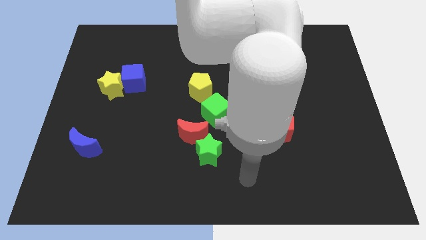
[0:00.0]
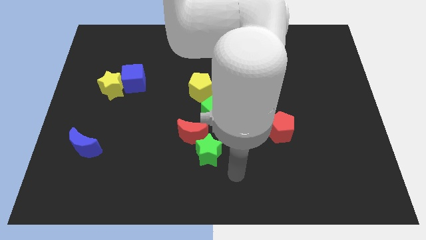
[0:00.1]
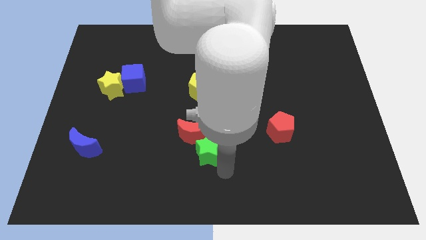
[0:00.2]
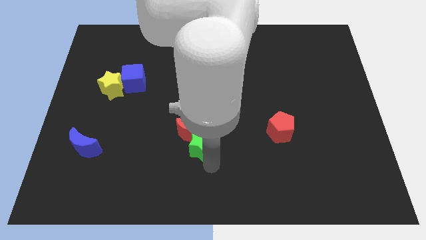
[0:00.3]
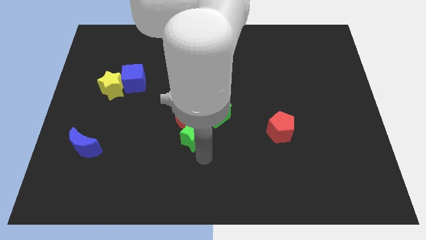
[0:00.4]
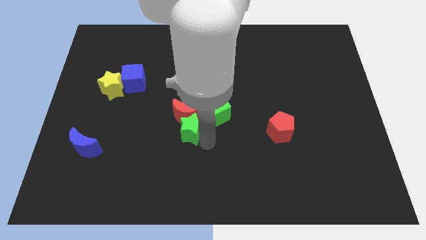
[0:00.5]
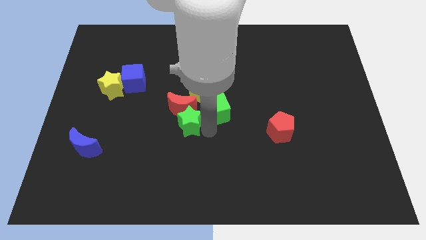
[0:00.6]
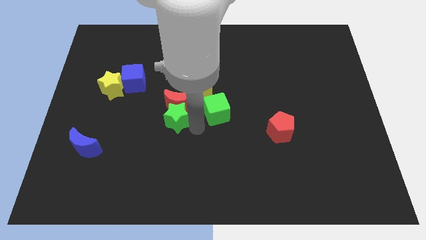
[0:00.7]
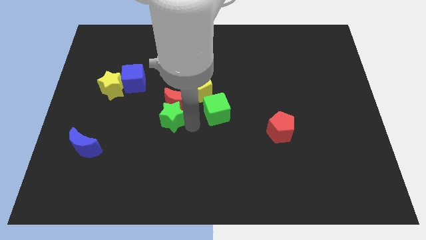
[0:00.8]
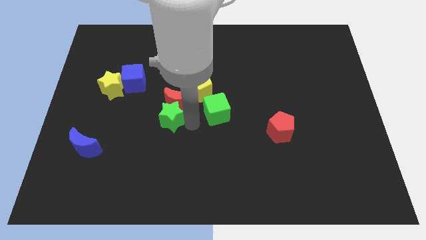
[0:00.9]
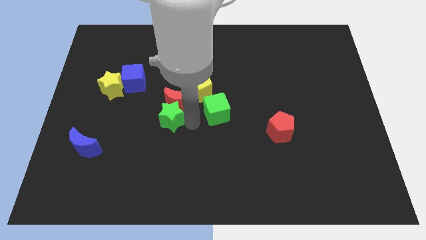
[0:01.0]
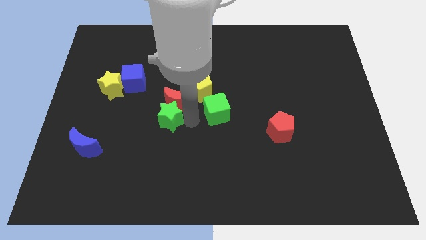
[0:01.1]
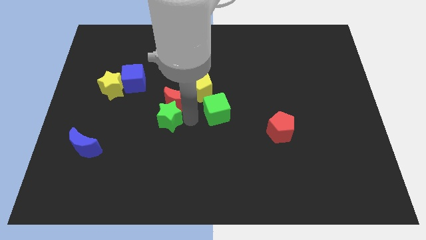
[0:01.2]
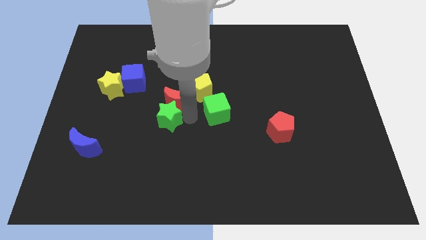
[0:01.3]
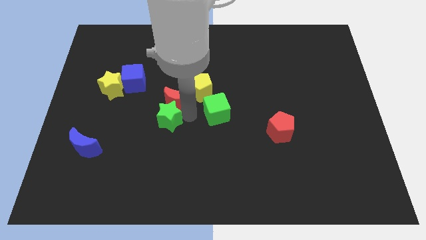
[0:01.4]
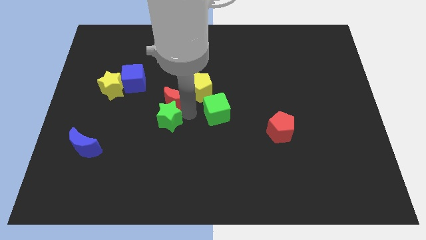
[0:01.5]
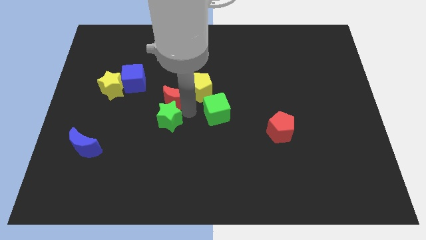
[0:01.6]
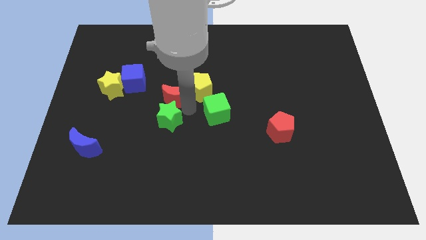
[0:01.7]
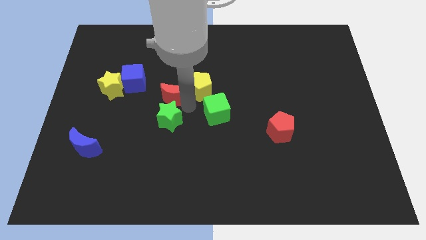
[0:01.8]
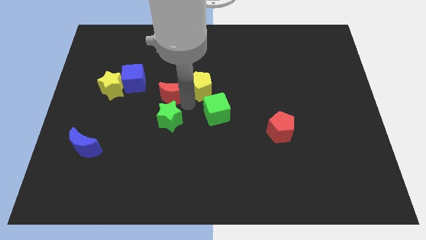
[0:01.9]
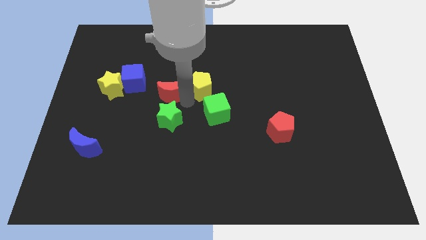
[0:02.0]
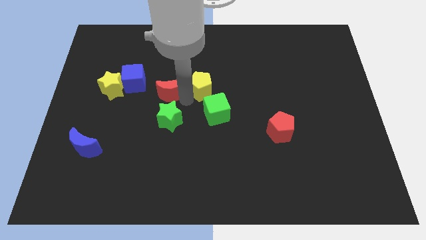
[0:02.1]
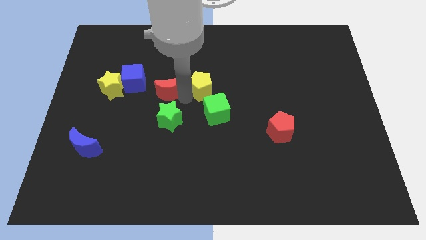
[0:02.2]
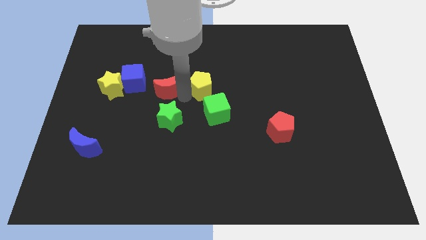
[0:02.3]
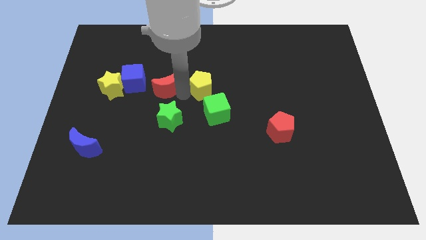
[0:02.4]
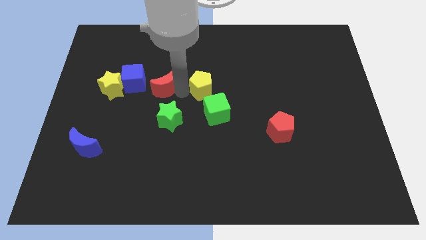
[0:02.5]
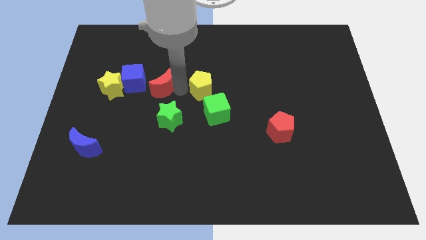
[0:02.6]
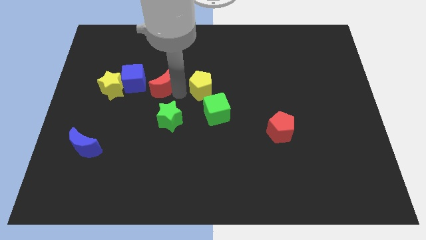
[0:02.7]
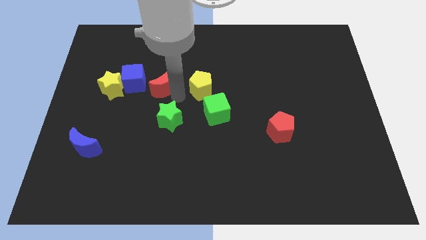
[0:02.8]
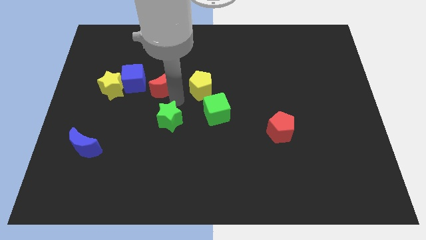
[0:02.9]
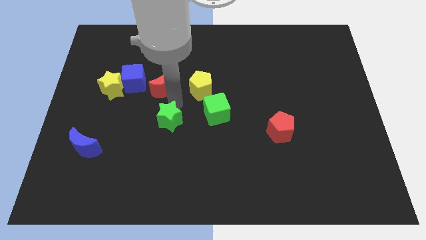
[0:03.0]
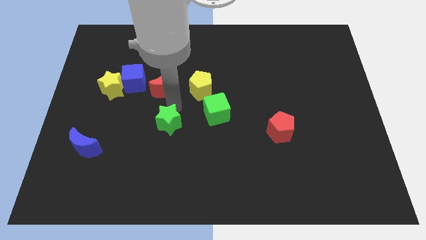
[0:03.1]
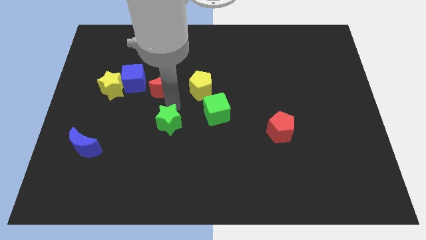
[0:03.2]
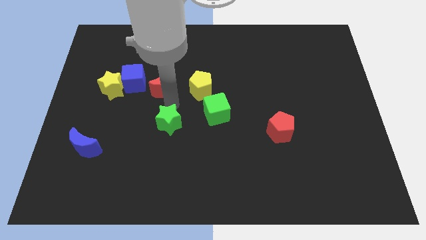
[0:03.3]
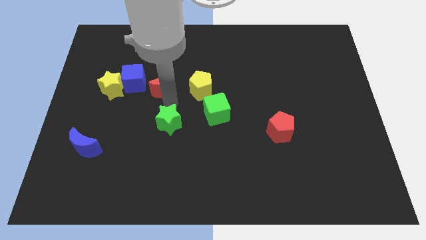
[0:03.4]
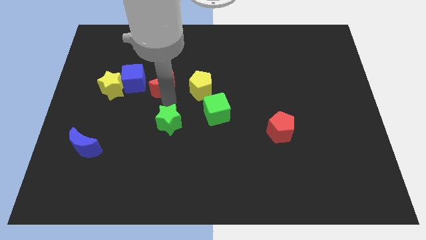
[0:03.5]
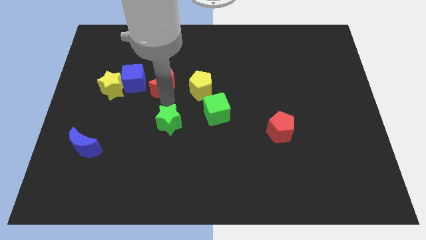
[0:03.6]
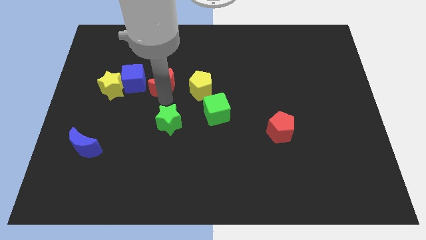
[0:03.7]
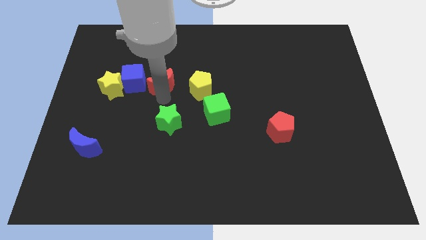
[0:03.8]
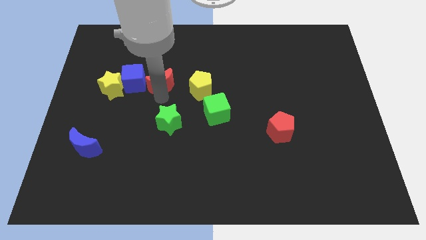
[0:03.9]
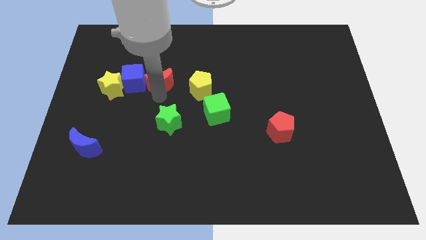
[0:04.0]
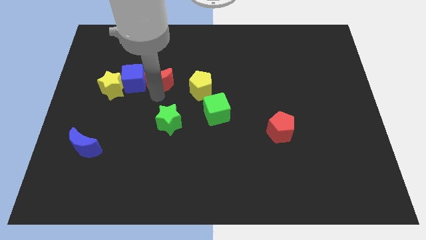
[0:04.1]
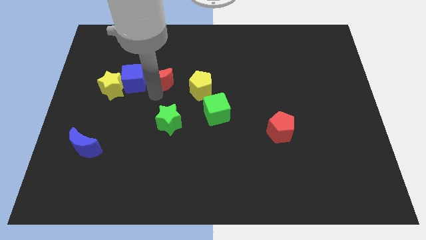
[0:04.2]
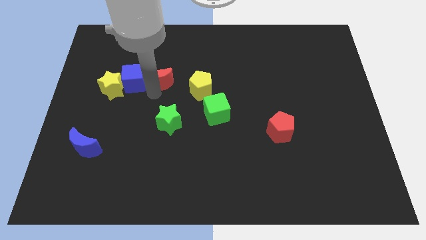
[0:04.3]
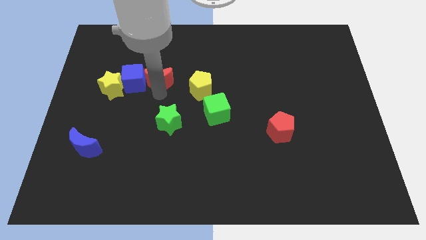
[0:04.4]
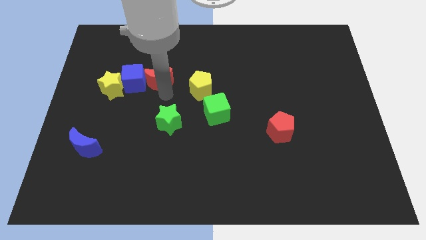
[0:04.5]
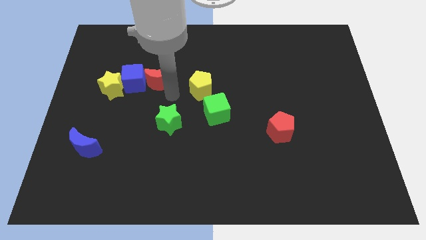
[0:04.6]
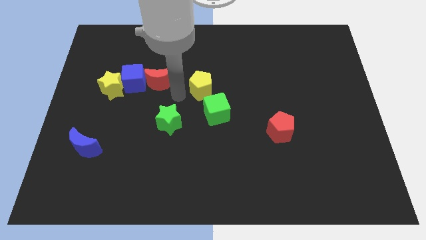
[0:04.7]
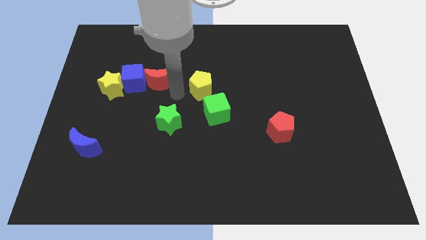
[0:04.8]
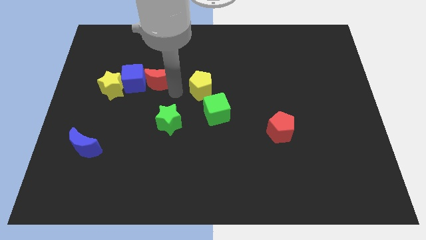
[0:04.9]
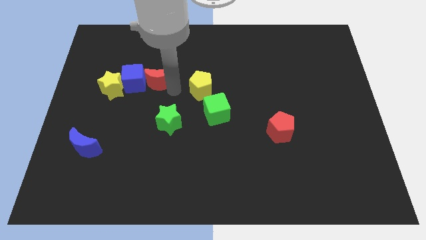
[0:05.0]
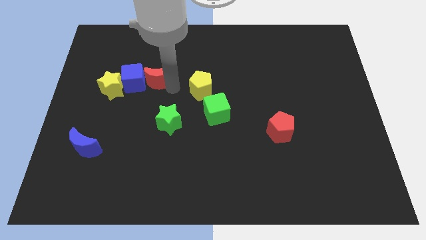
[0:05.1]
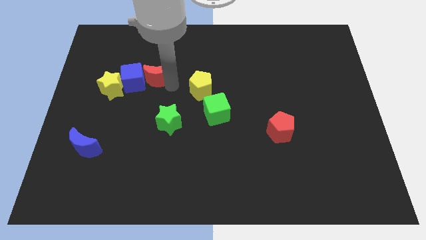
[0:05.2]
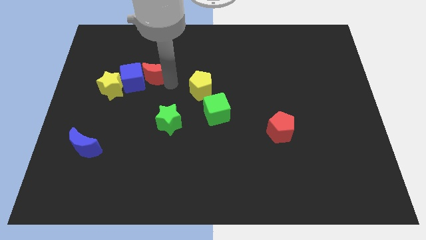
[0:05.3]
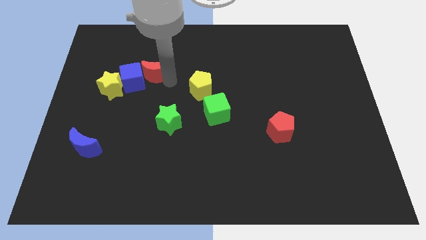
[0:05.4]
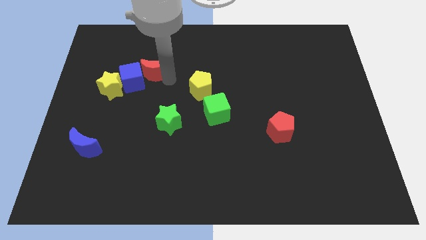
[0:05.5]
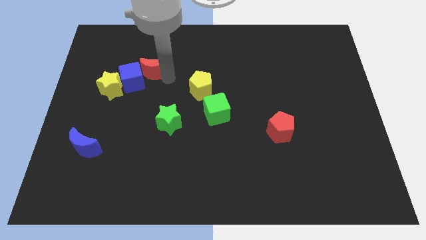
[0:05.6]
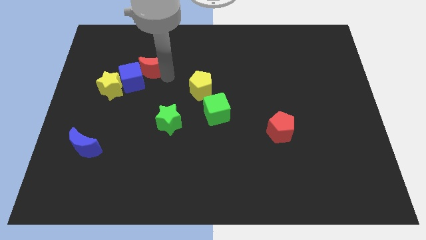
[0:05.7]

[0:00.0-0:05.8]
push the red moon diagonally upwards and to the left

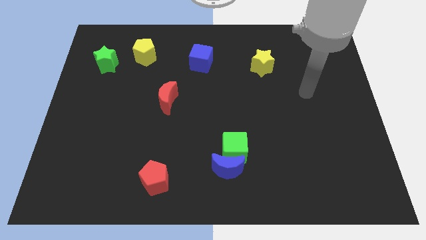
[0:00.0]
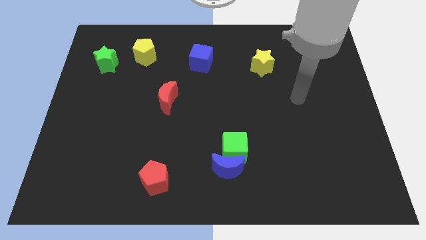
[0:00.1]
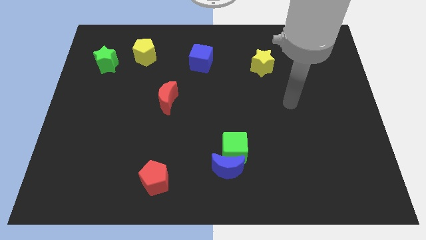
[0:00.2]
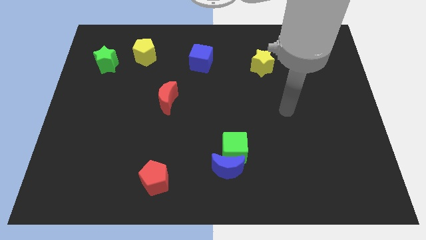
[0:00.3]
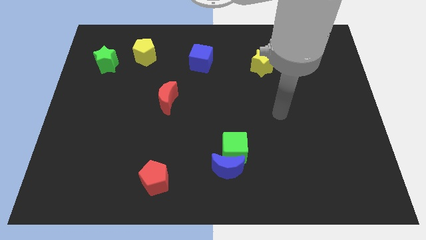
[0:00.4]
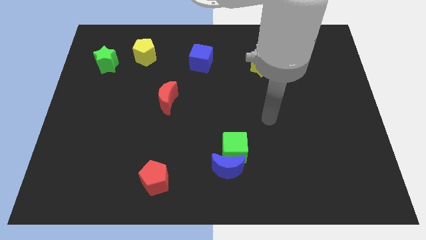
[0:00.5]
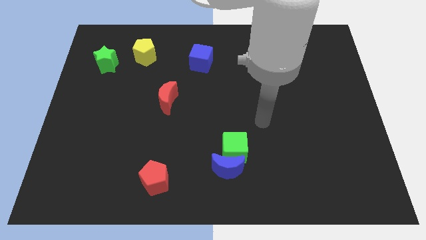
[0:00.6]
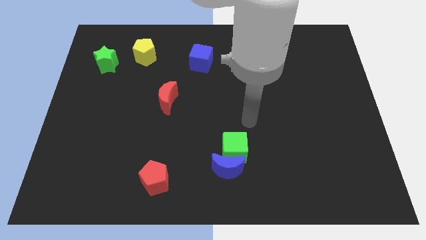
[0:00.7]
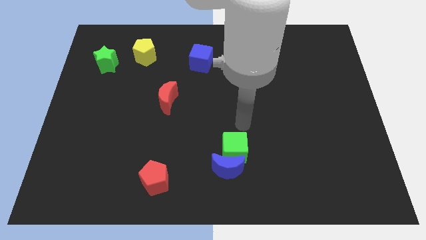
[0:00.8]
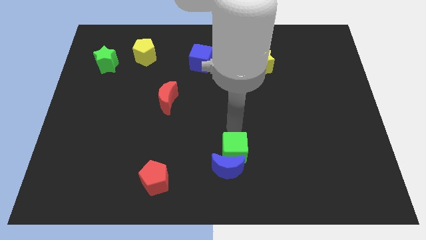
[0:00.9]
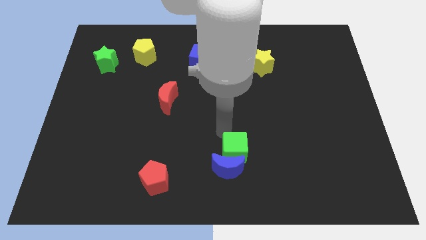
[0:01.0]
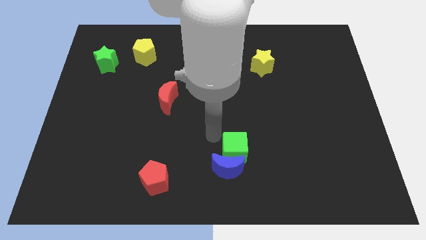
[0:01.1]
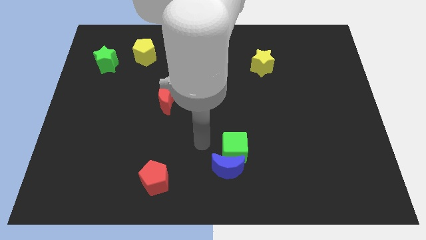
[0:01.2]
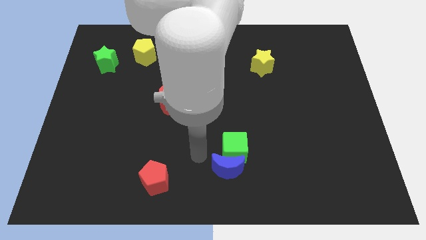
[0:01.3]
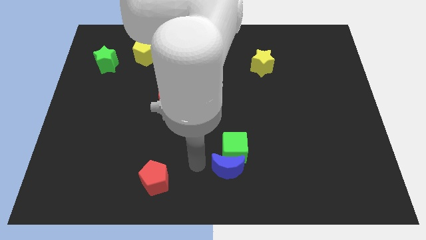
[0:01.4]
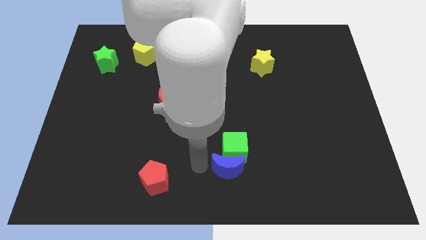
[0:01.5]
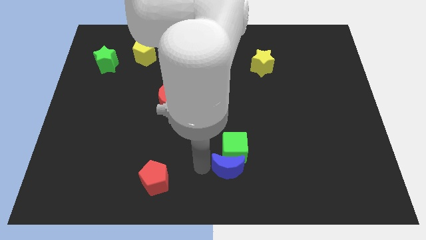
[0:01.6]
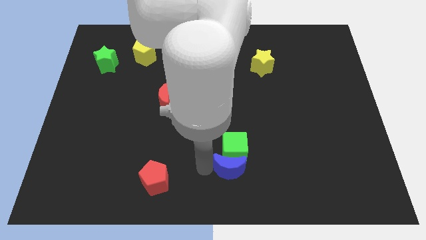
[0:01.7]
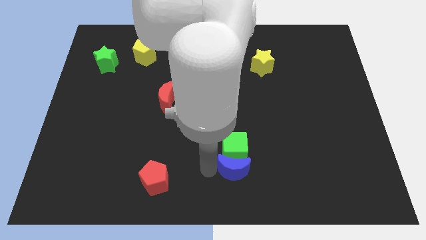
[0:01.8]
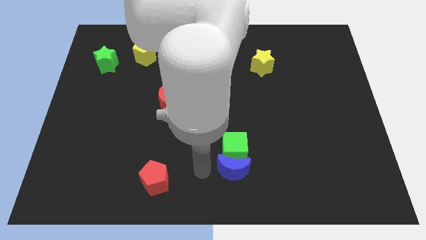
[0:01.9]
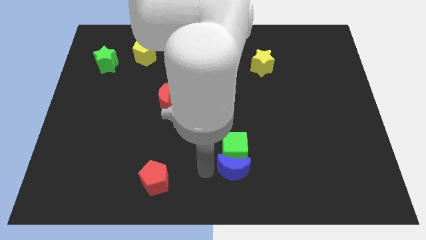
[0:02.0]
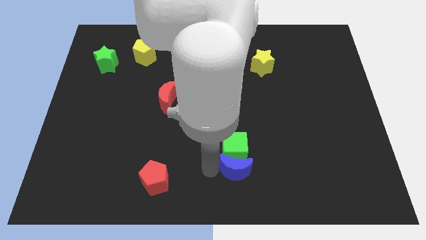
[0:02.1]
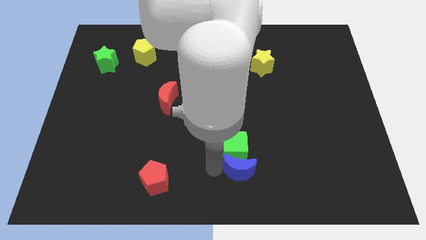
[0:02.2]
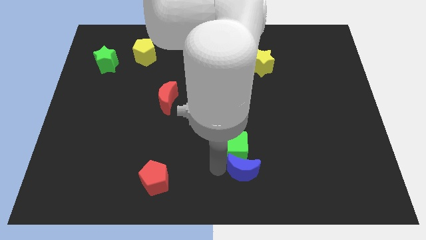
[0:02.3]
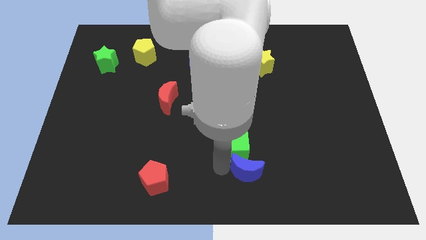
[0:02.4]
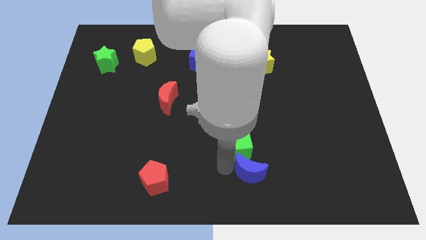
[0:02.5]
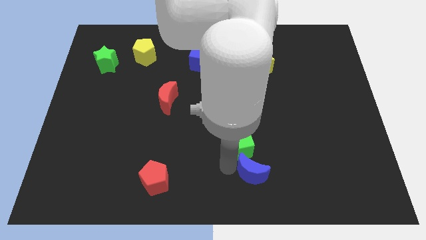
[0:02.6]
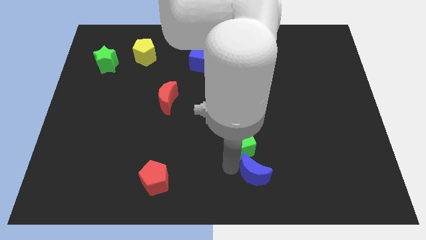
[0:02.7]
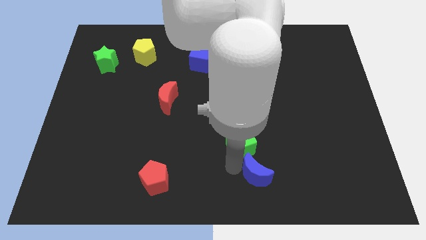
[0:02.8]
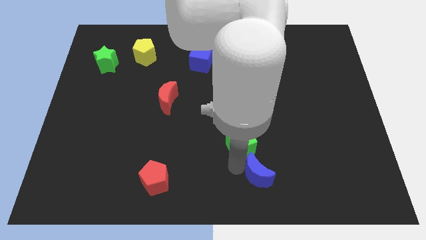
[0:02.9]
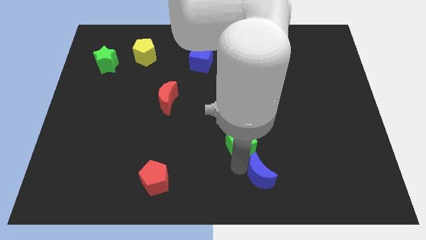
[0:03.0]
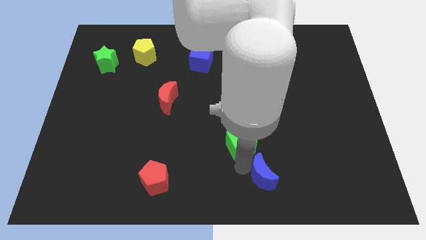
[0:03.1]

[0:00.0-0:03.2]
slightly slide the blue moon right
